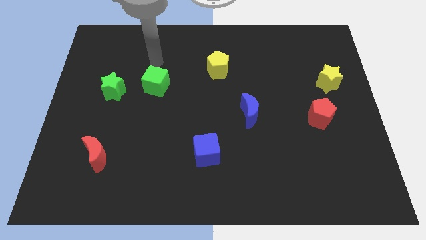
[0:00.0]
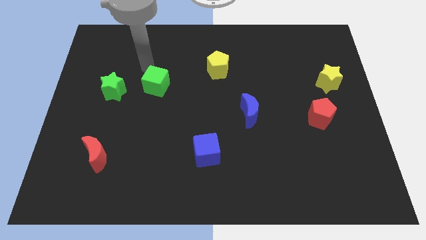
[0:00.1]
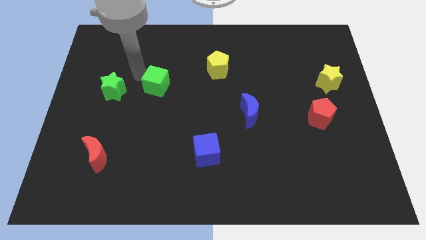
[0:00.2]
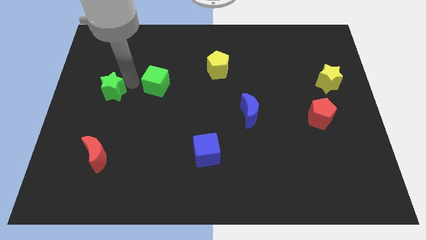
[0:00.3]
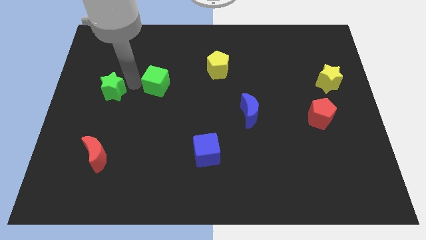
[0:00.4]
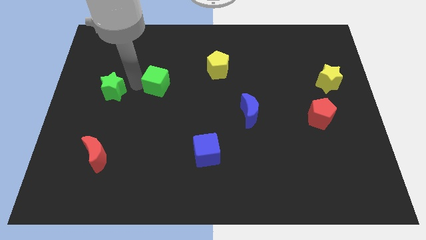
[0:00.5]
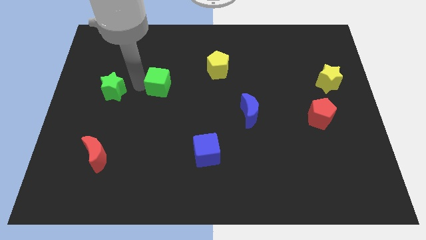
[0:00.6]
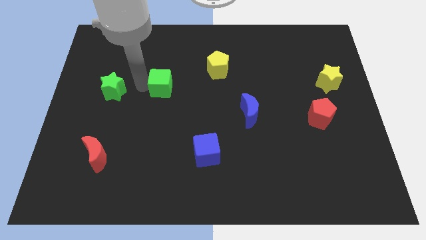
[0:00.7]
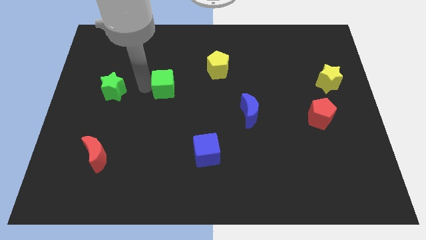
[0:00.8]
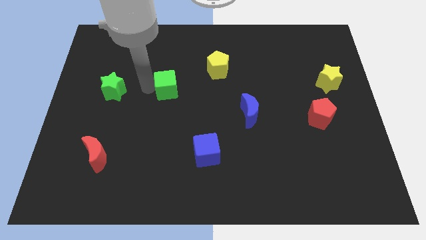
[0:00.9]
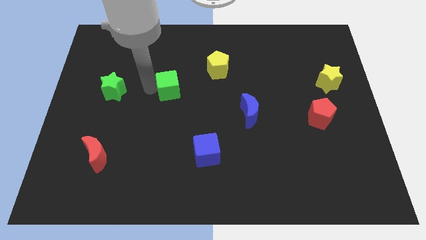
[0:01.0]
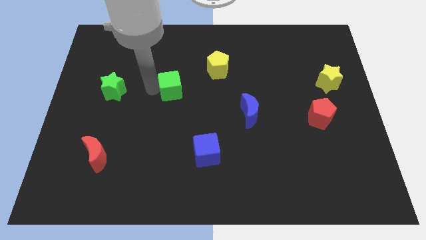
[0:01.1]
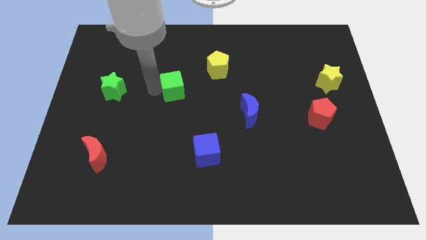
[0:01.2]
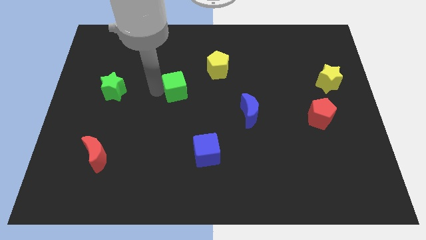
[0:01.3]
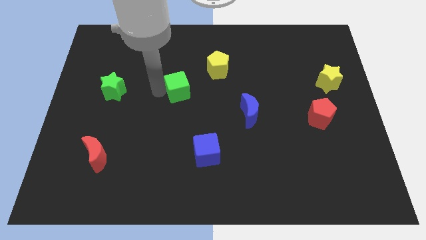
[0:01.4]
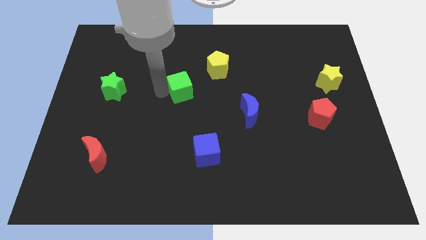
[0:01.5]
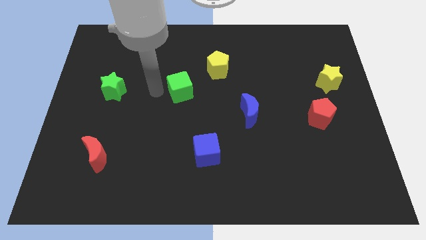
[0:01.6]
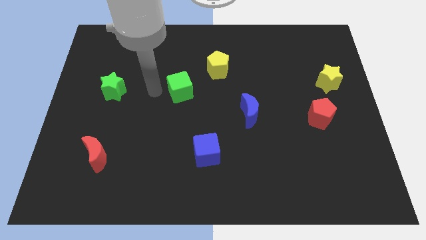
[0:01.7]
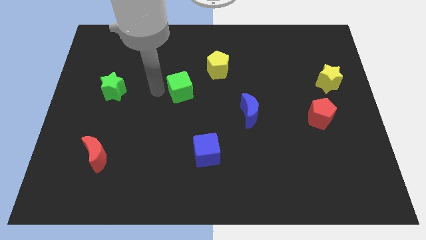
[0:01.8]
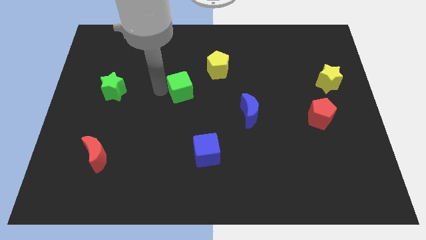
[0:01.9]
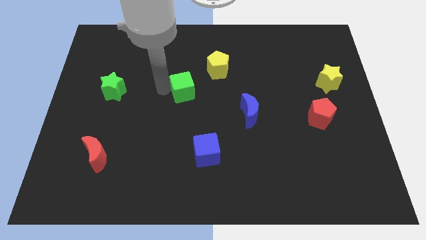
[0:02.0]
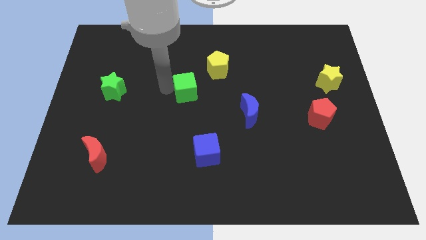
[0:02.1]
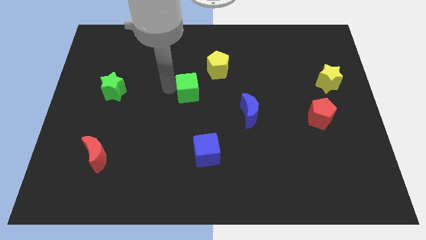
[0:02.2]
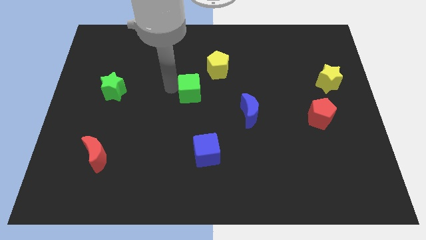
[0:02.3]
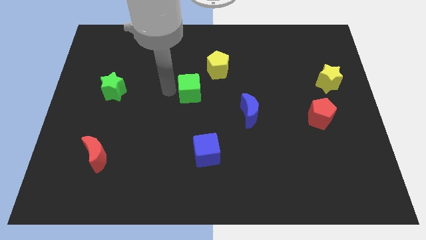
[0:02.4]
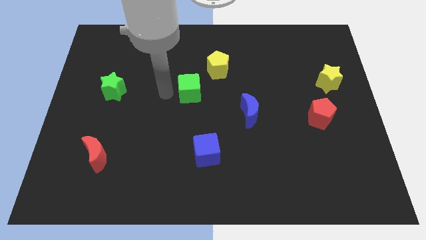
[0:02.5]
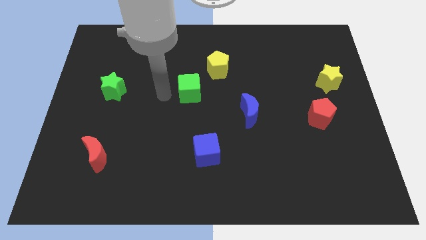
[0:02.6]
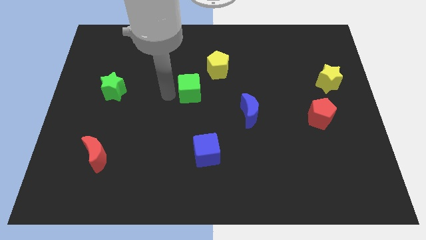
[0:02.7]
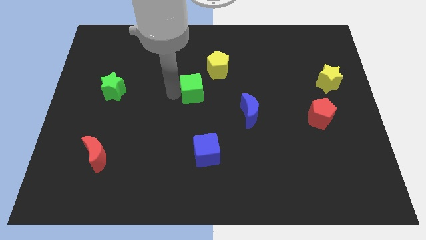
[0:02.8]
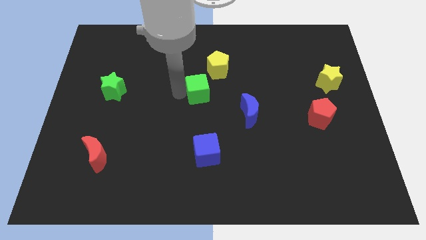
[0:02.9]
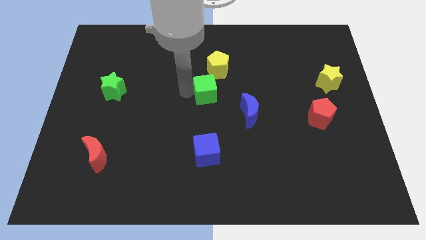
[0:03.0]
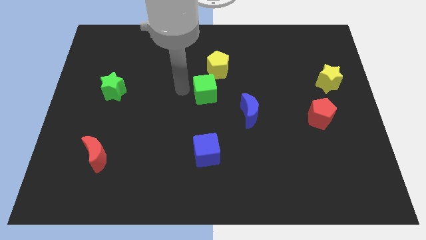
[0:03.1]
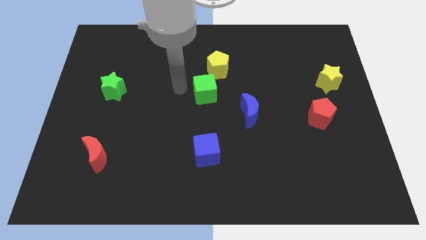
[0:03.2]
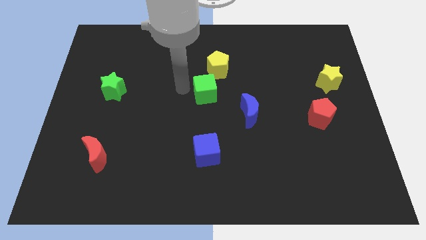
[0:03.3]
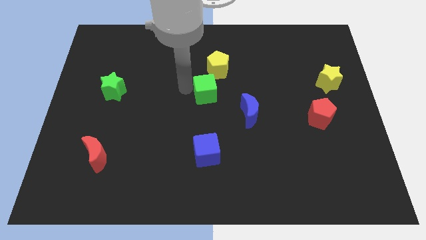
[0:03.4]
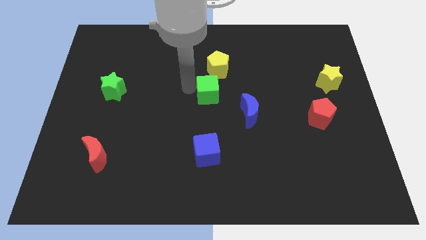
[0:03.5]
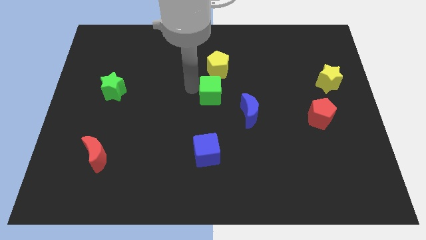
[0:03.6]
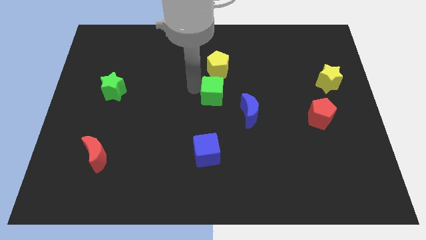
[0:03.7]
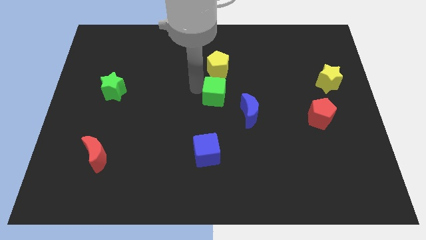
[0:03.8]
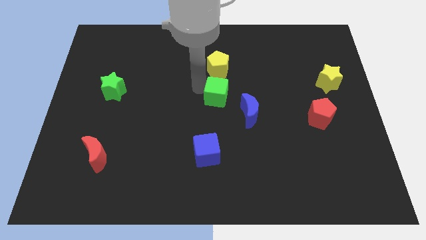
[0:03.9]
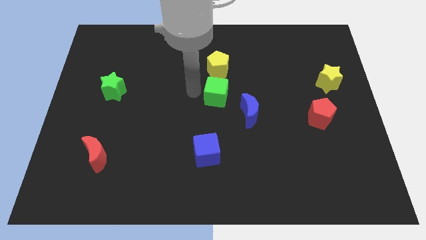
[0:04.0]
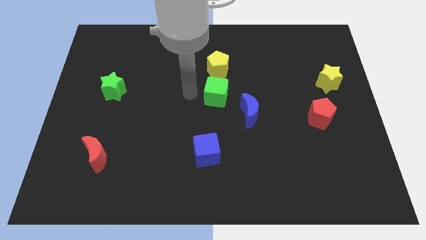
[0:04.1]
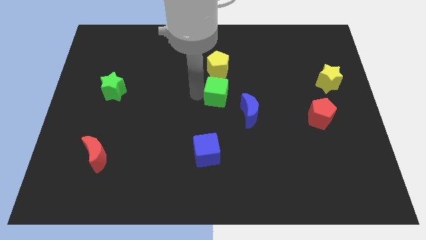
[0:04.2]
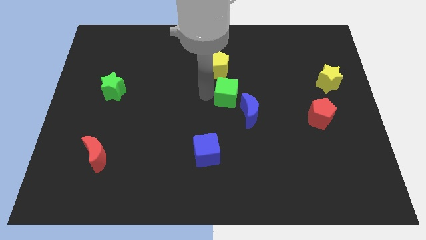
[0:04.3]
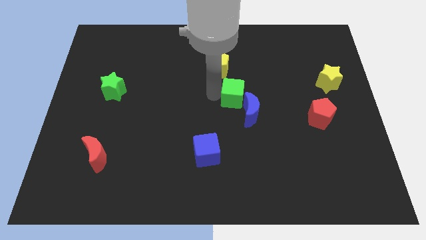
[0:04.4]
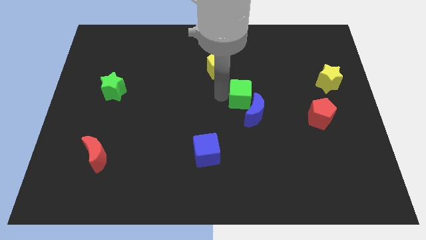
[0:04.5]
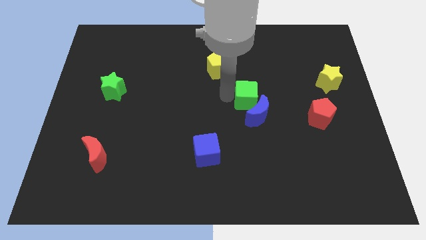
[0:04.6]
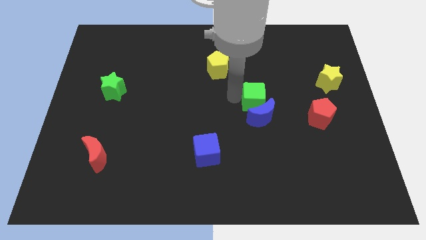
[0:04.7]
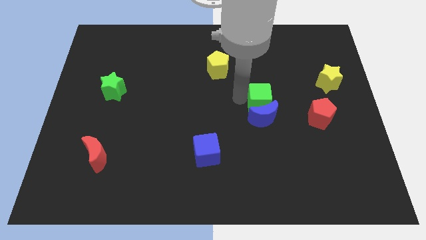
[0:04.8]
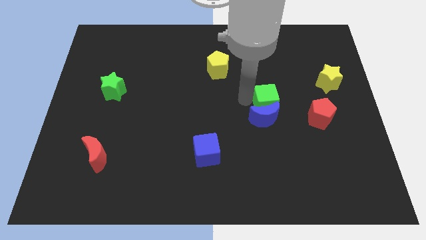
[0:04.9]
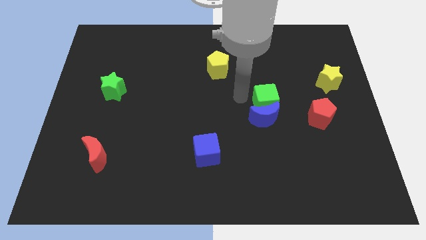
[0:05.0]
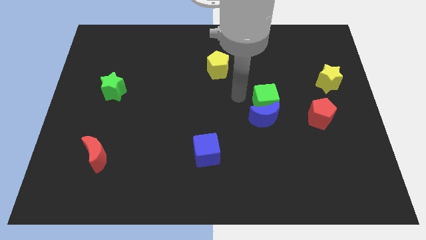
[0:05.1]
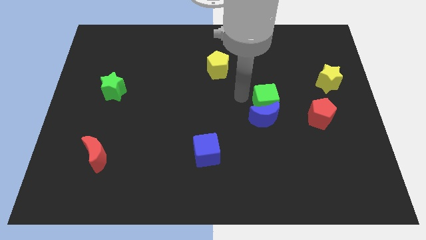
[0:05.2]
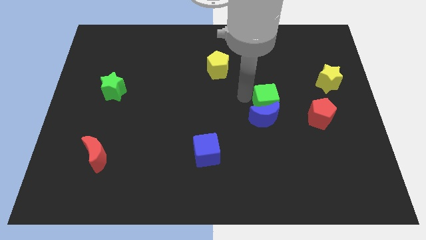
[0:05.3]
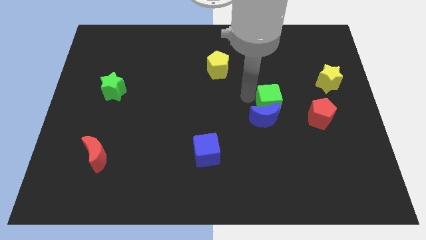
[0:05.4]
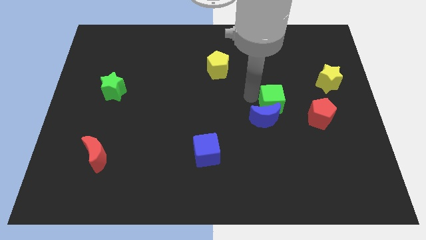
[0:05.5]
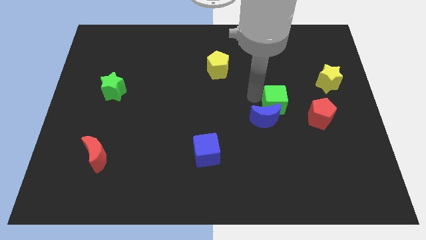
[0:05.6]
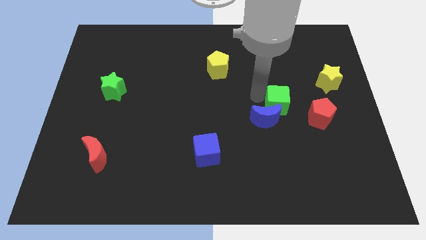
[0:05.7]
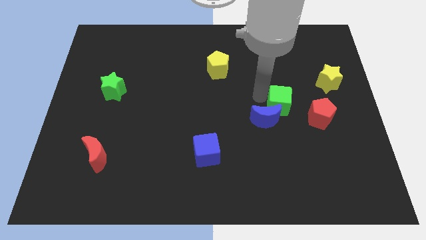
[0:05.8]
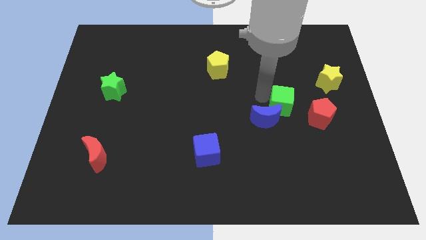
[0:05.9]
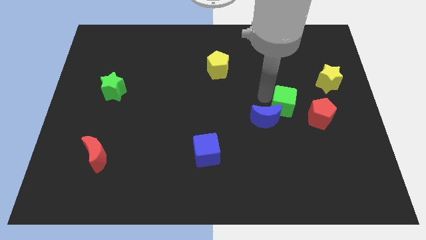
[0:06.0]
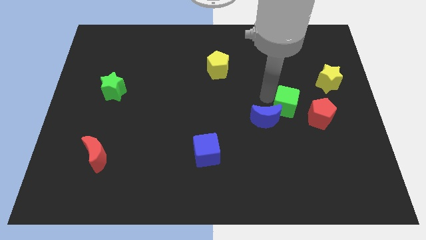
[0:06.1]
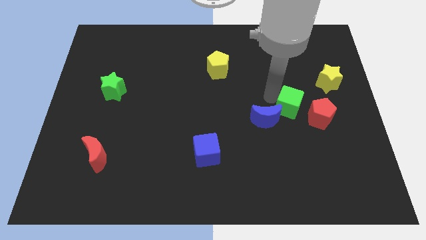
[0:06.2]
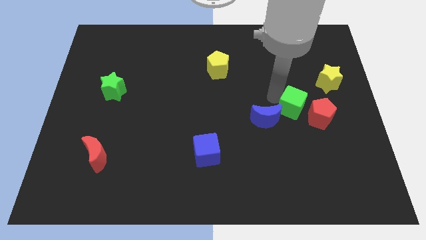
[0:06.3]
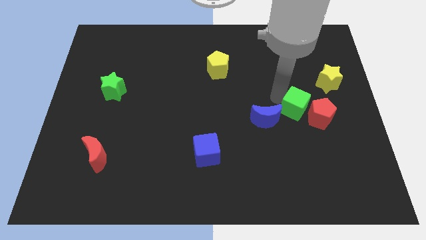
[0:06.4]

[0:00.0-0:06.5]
put the green cube next to the red pentagon

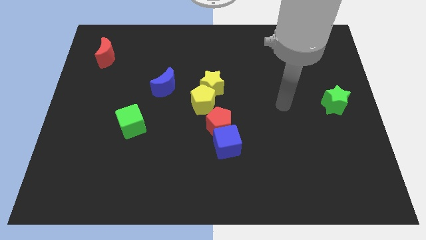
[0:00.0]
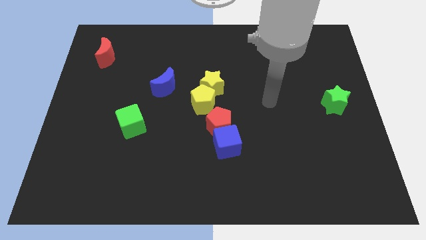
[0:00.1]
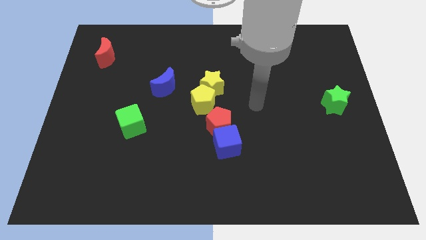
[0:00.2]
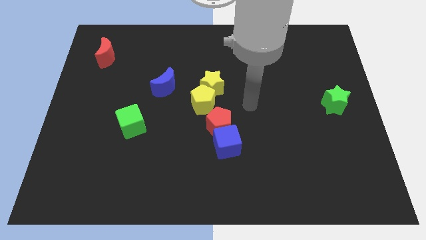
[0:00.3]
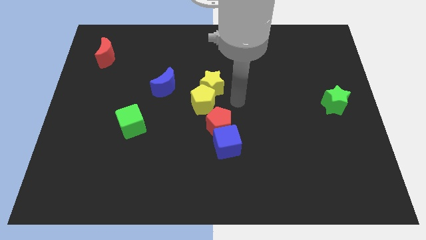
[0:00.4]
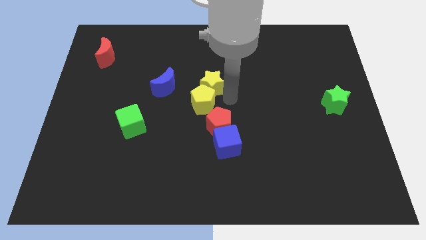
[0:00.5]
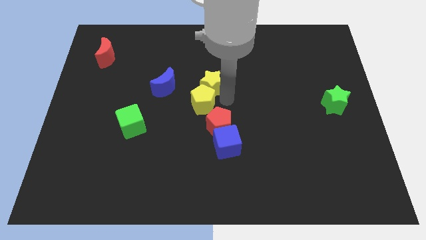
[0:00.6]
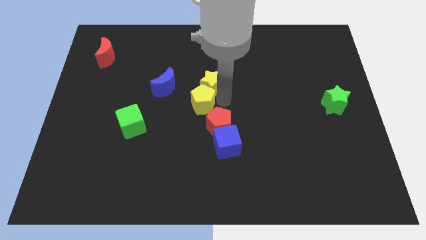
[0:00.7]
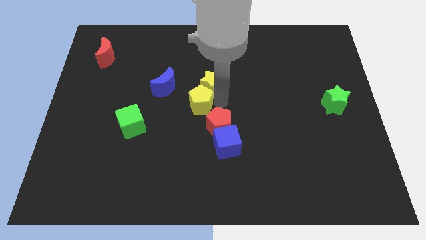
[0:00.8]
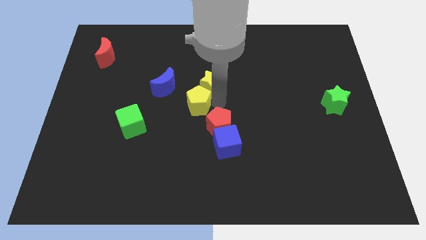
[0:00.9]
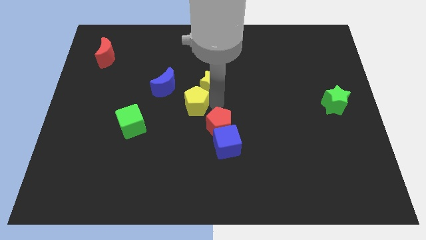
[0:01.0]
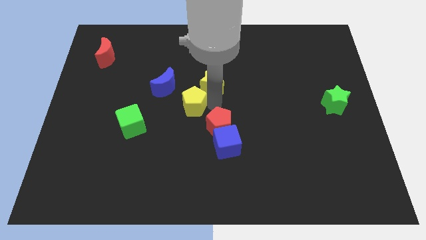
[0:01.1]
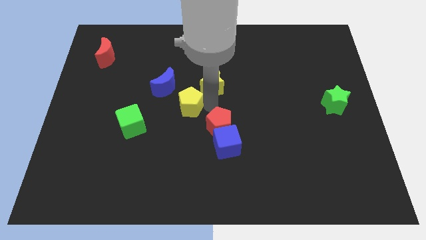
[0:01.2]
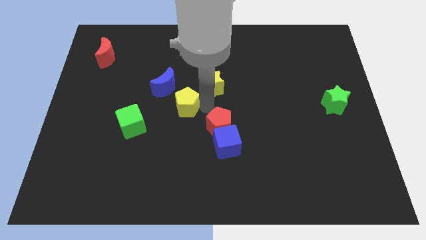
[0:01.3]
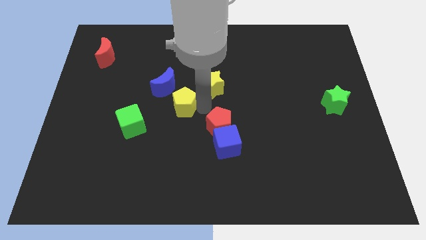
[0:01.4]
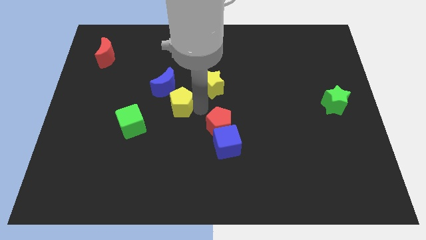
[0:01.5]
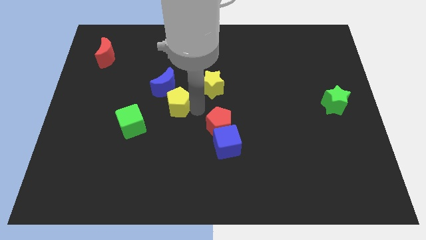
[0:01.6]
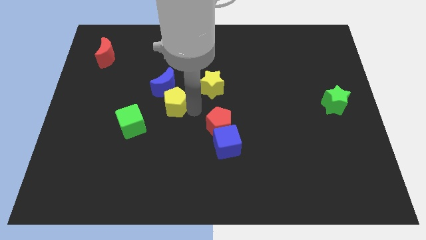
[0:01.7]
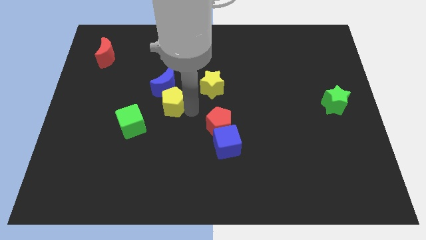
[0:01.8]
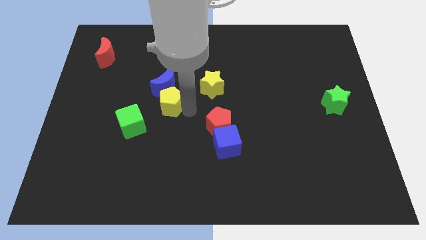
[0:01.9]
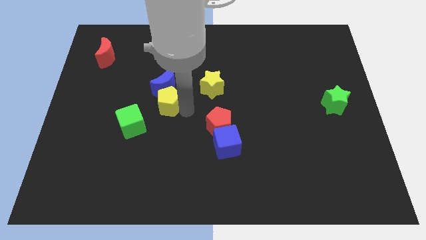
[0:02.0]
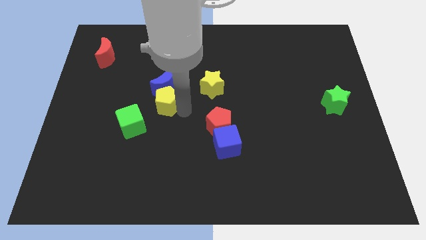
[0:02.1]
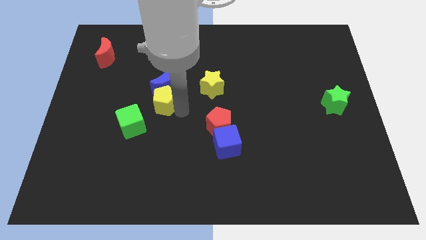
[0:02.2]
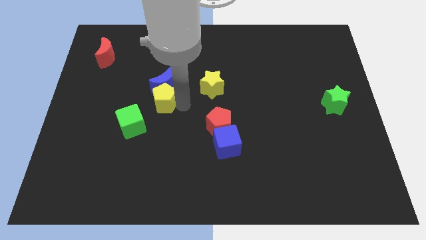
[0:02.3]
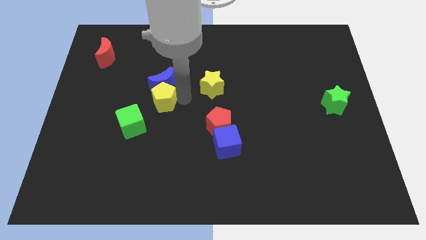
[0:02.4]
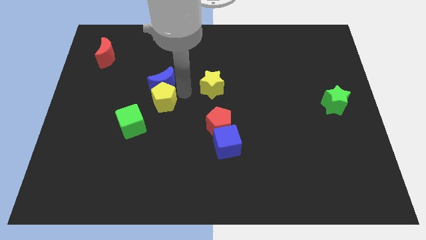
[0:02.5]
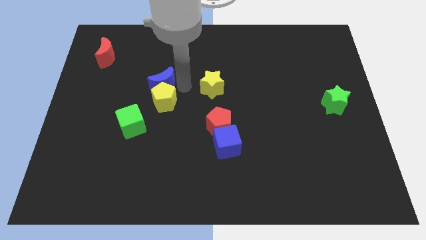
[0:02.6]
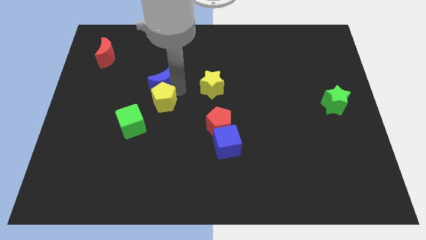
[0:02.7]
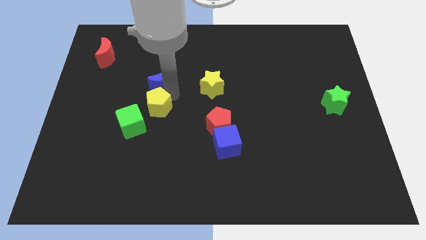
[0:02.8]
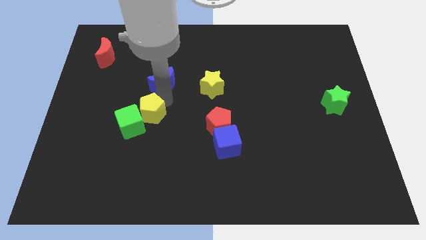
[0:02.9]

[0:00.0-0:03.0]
push the yellow pentagon close to the green cube
